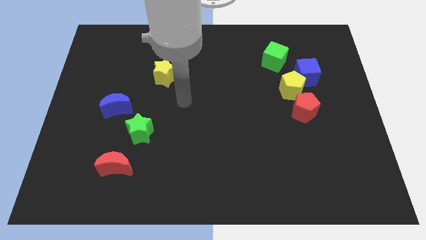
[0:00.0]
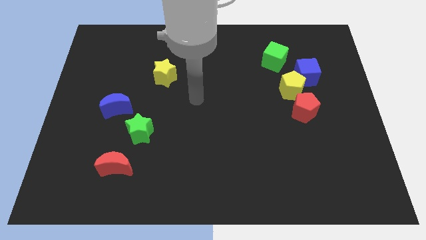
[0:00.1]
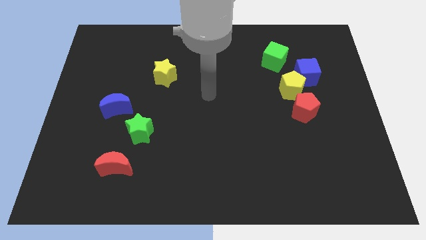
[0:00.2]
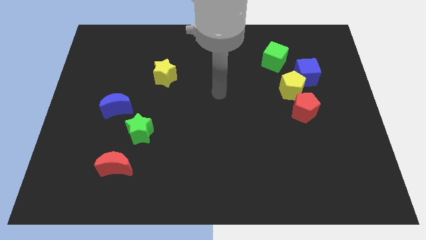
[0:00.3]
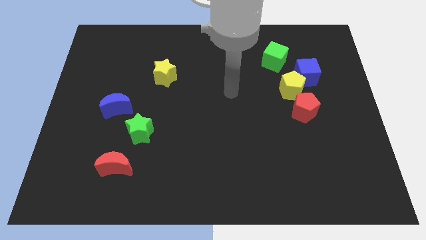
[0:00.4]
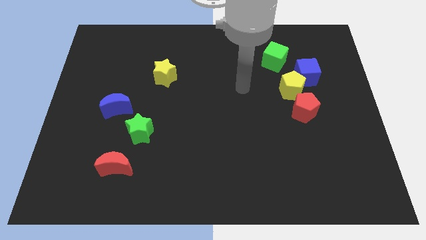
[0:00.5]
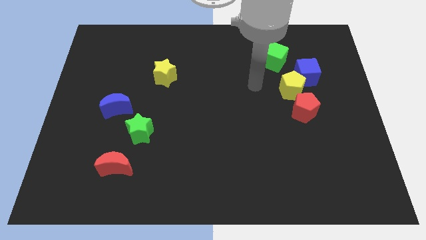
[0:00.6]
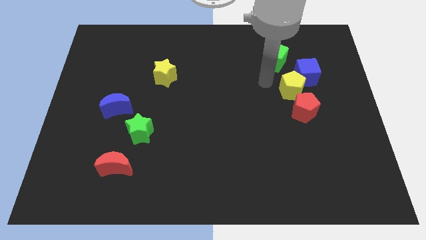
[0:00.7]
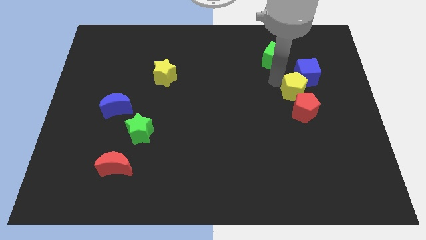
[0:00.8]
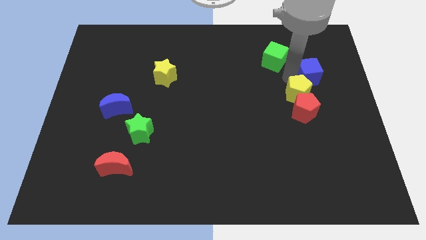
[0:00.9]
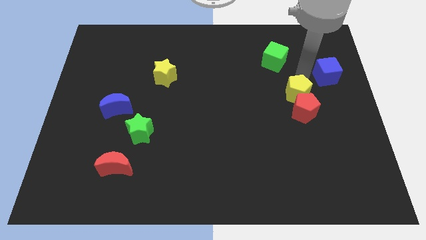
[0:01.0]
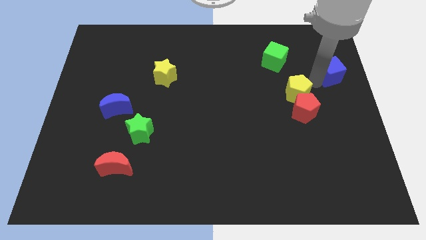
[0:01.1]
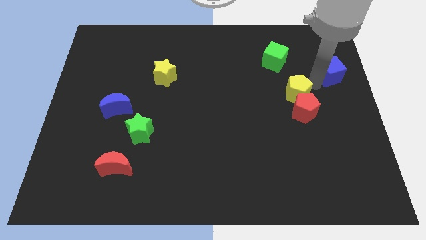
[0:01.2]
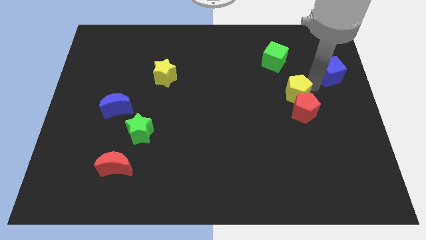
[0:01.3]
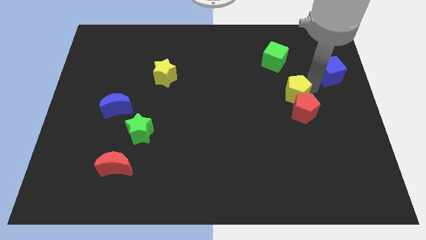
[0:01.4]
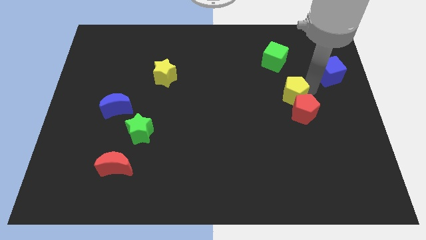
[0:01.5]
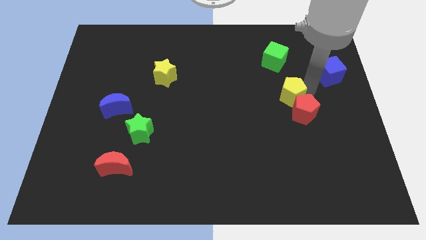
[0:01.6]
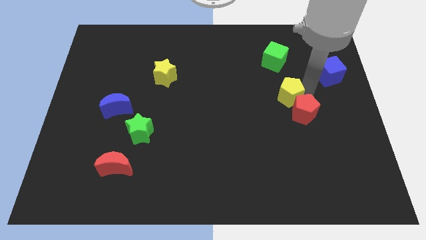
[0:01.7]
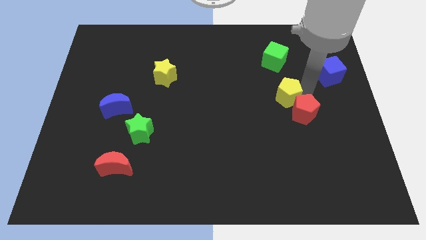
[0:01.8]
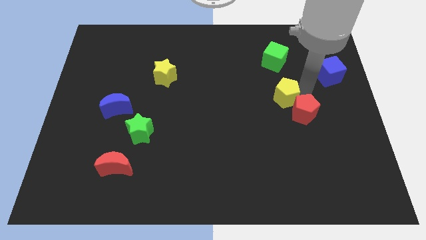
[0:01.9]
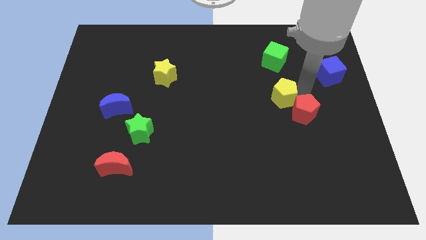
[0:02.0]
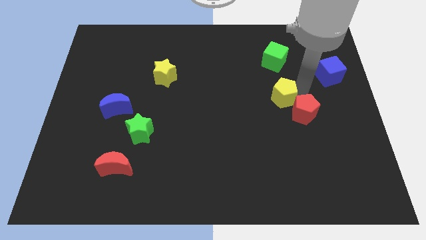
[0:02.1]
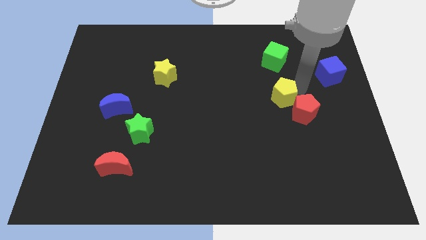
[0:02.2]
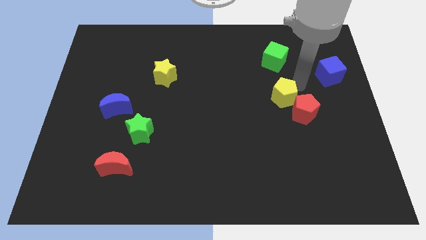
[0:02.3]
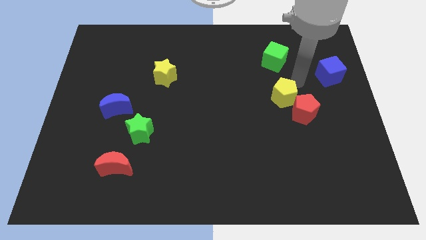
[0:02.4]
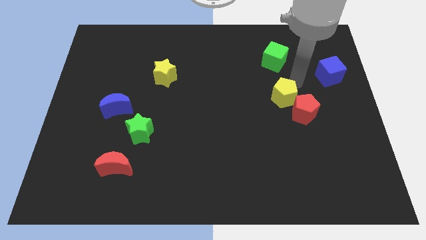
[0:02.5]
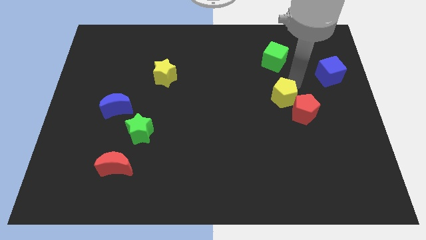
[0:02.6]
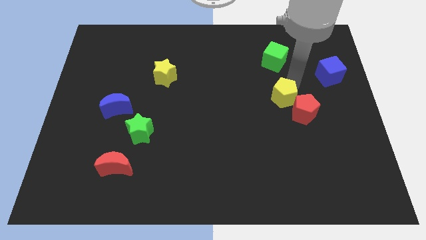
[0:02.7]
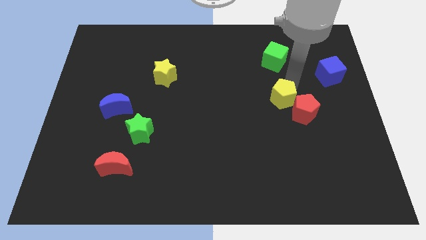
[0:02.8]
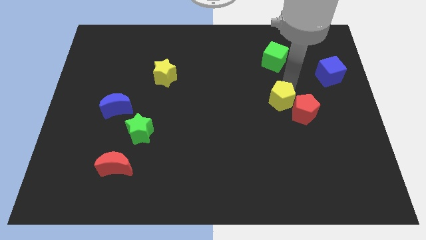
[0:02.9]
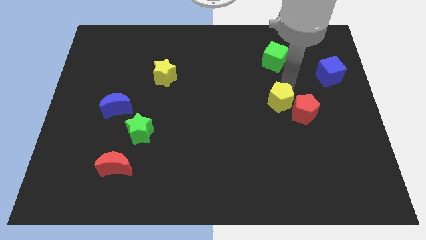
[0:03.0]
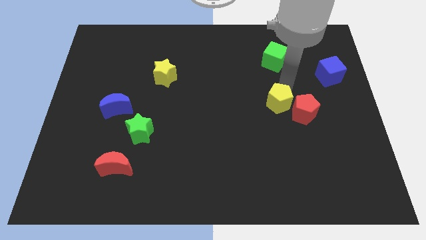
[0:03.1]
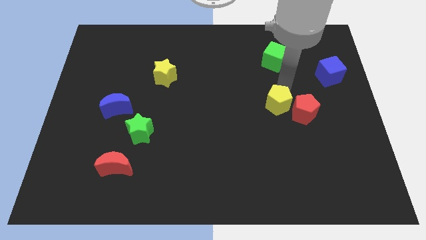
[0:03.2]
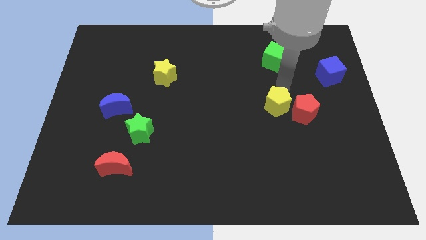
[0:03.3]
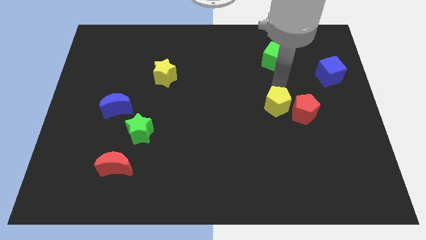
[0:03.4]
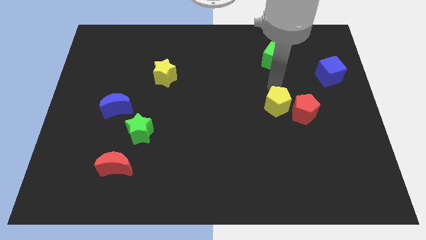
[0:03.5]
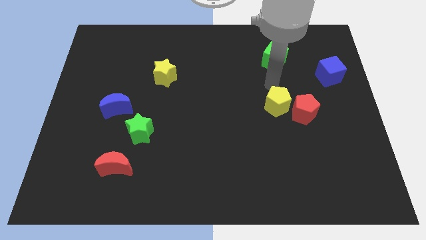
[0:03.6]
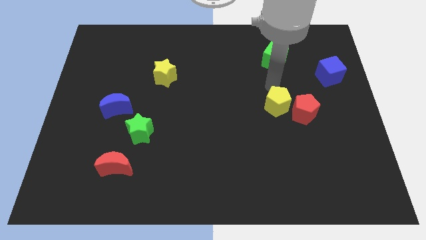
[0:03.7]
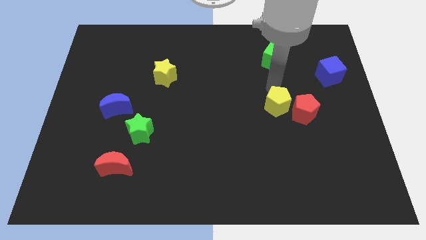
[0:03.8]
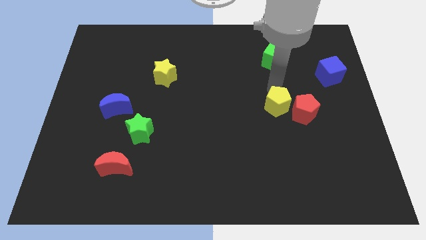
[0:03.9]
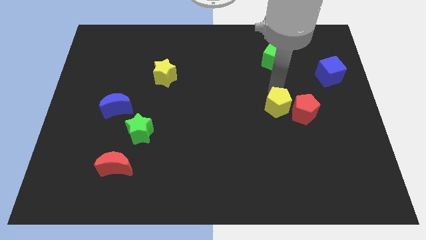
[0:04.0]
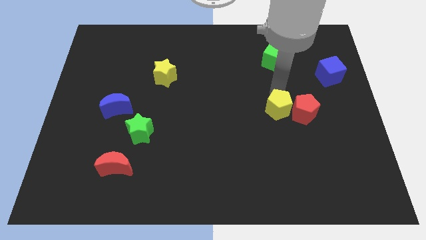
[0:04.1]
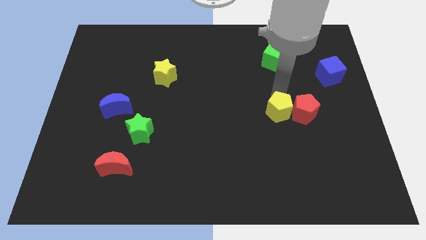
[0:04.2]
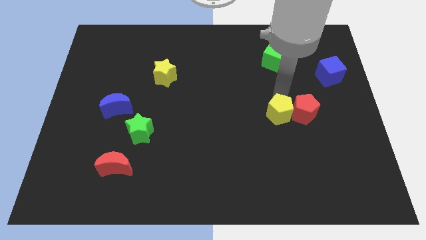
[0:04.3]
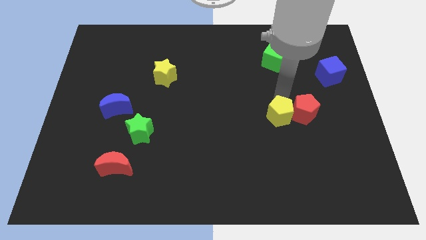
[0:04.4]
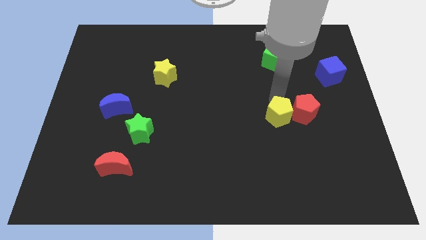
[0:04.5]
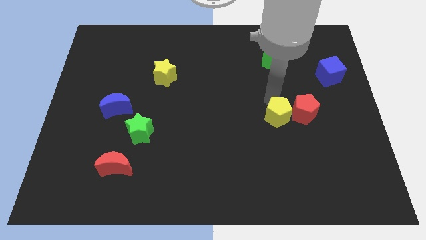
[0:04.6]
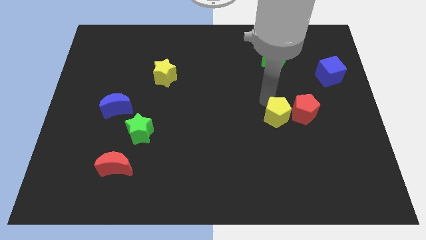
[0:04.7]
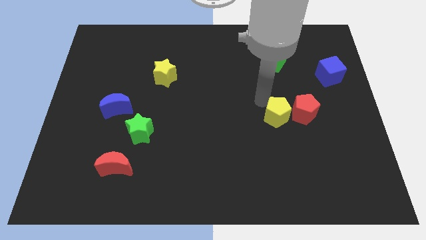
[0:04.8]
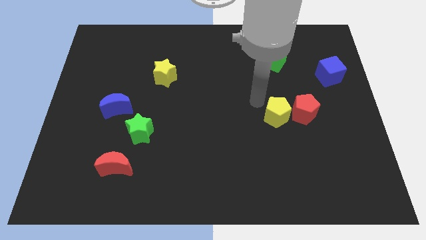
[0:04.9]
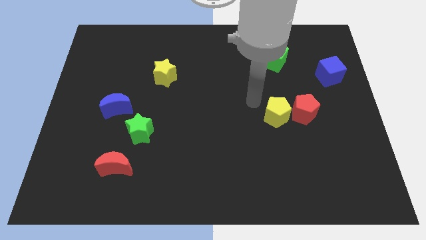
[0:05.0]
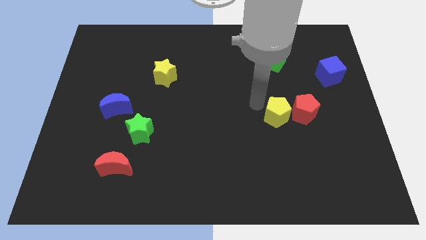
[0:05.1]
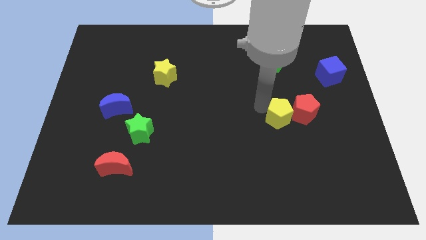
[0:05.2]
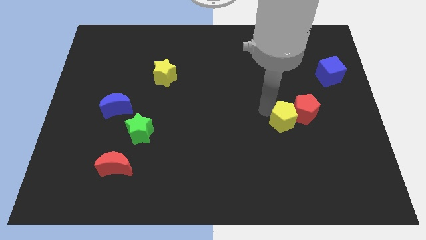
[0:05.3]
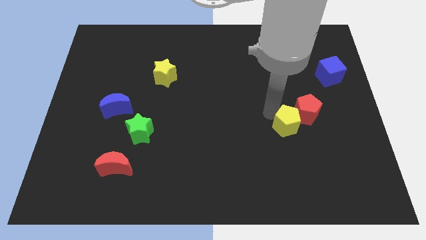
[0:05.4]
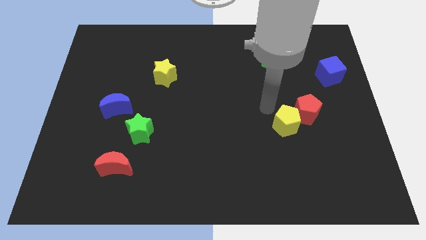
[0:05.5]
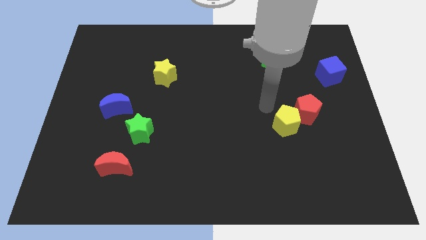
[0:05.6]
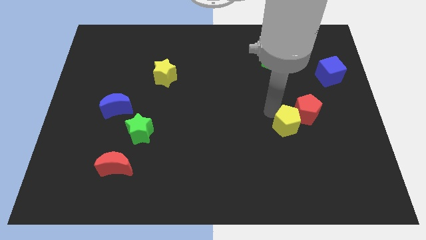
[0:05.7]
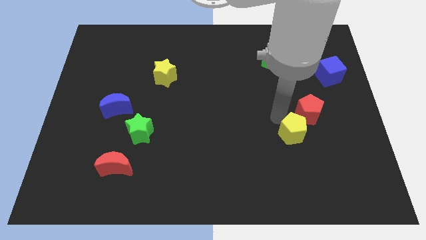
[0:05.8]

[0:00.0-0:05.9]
move the yellow pentagon below the red pentagon
